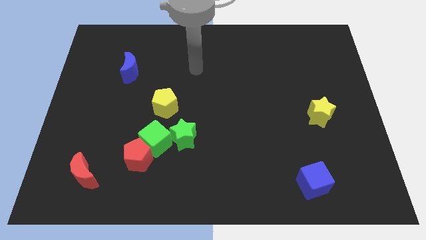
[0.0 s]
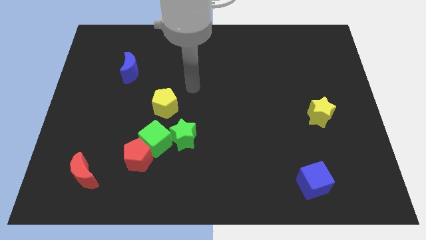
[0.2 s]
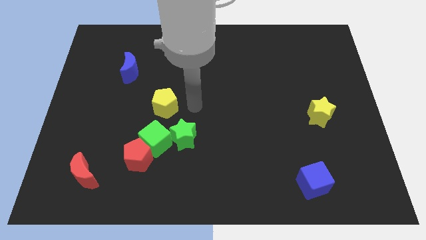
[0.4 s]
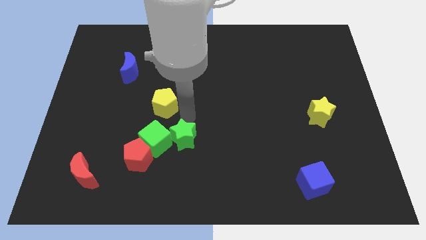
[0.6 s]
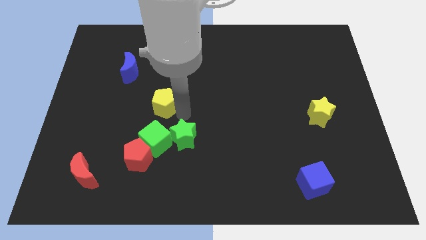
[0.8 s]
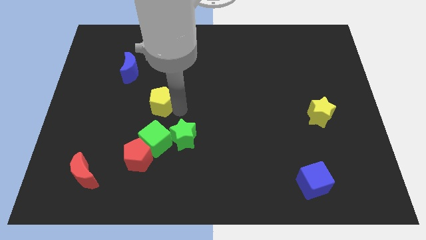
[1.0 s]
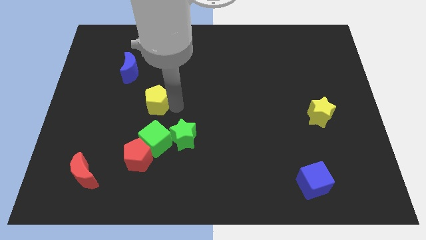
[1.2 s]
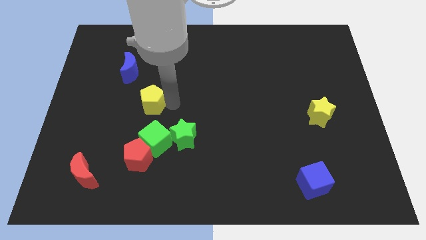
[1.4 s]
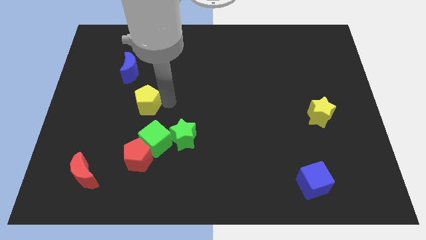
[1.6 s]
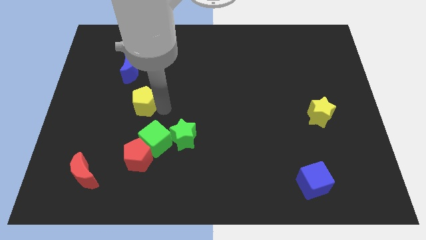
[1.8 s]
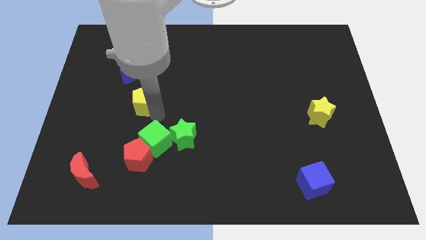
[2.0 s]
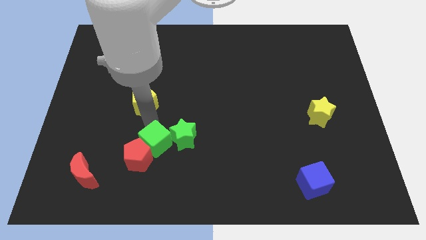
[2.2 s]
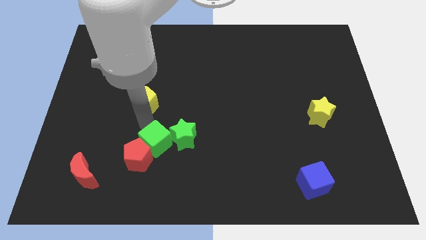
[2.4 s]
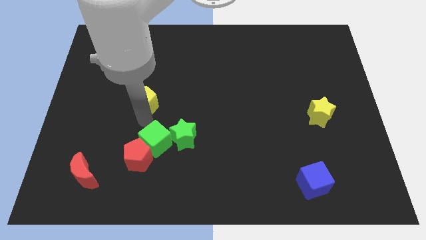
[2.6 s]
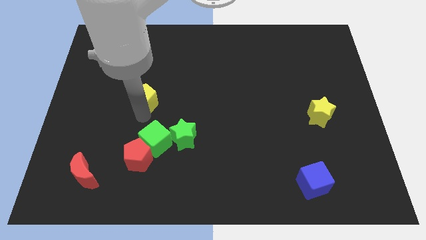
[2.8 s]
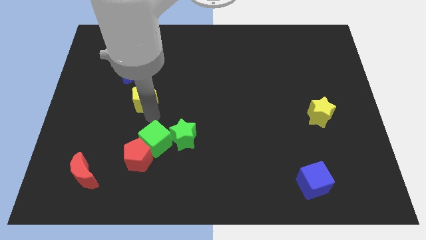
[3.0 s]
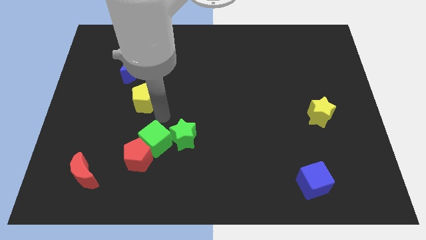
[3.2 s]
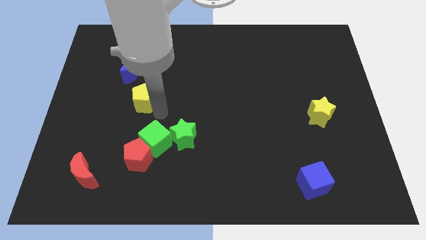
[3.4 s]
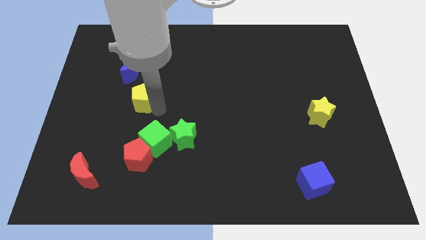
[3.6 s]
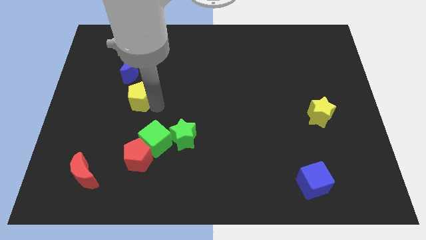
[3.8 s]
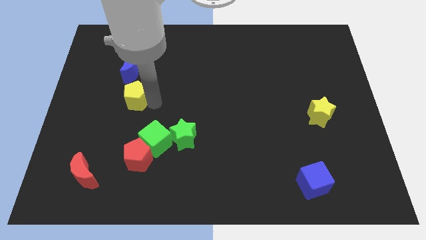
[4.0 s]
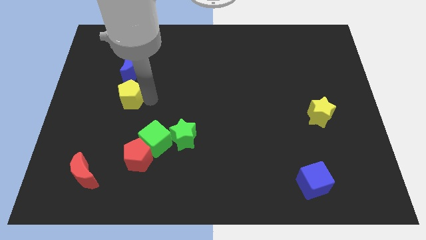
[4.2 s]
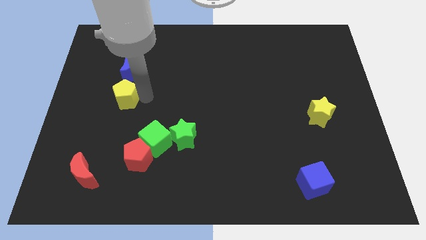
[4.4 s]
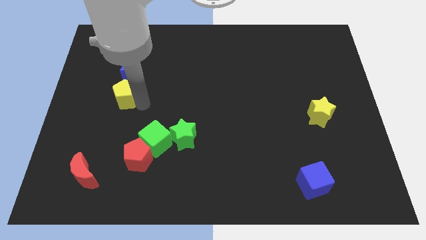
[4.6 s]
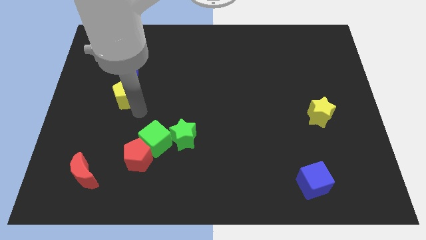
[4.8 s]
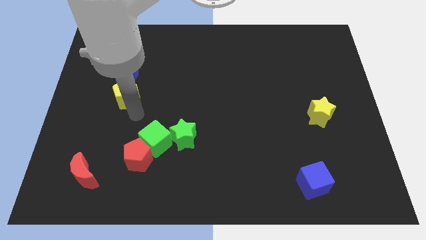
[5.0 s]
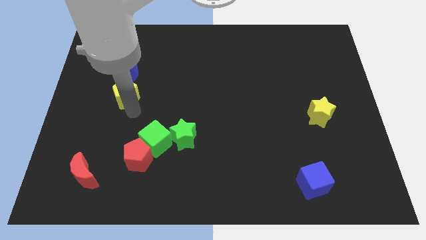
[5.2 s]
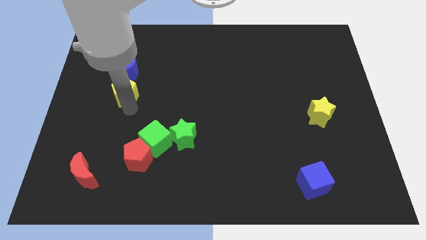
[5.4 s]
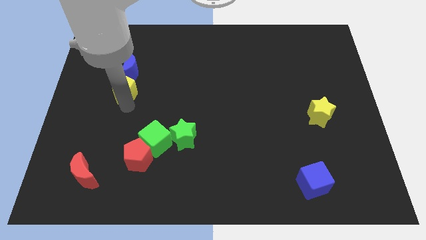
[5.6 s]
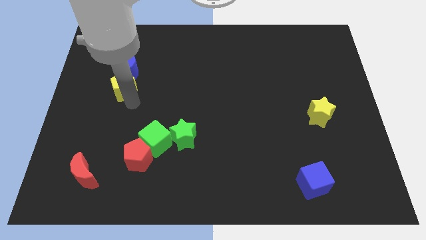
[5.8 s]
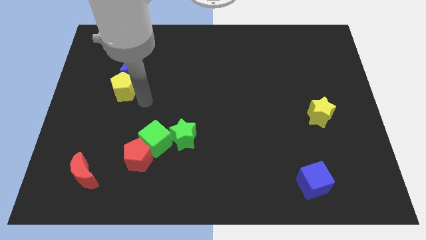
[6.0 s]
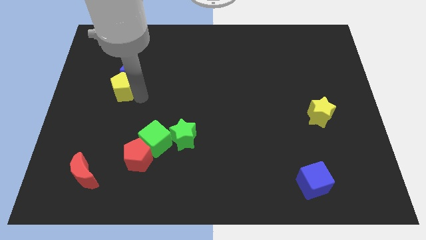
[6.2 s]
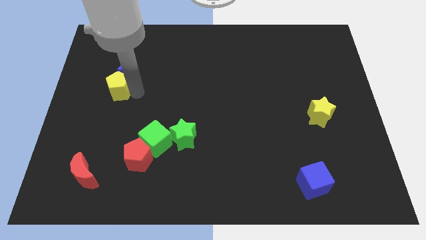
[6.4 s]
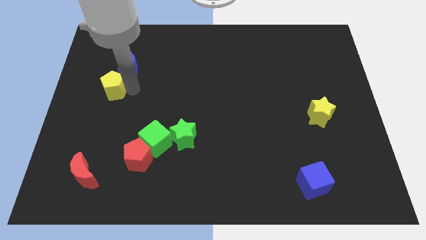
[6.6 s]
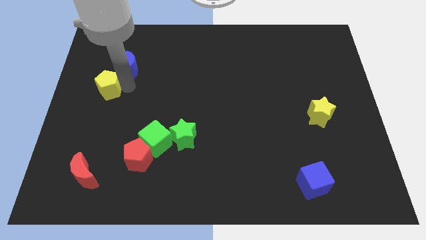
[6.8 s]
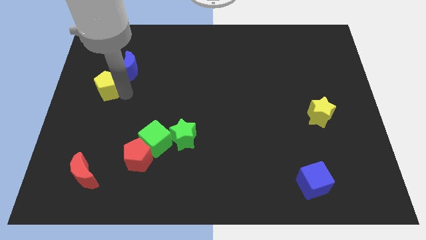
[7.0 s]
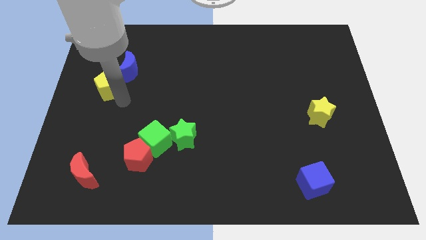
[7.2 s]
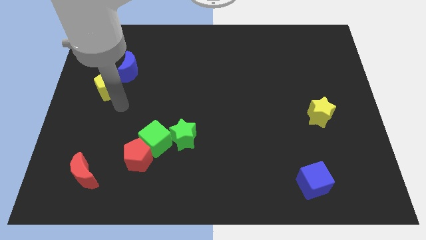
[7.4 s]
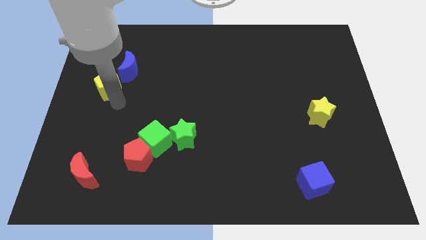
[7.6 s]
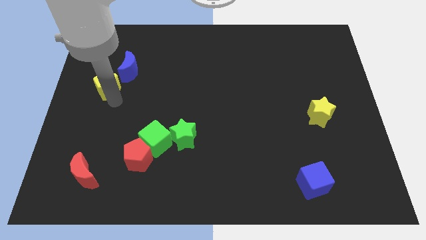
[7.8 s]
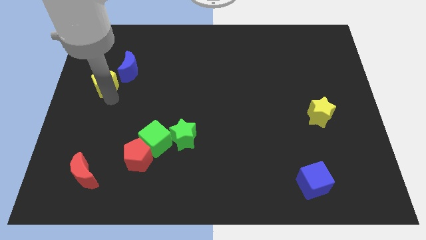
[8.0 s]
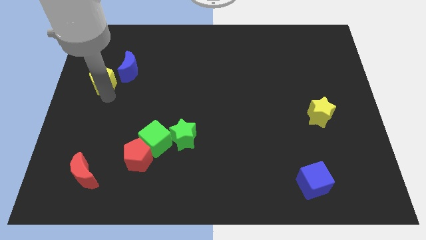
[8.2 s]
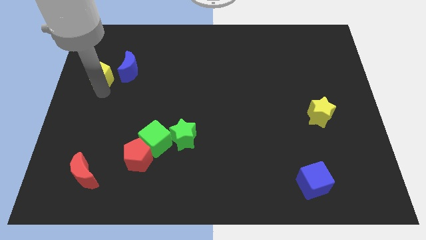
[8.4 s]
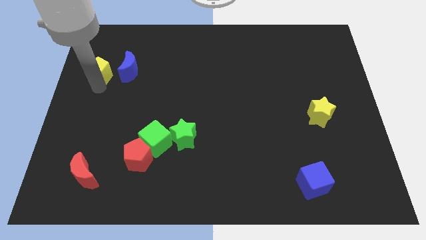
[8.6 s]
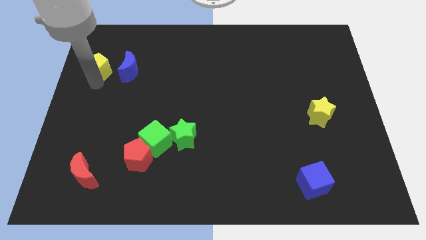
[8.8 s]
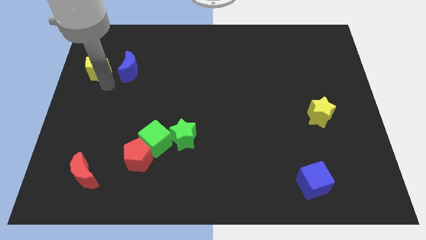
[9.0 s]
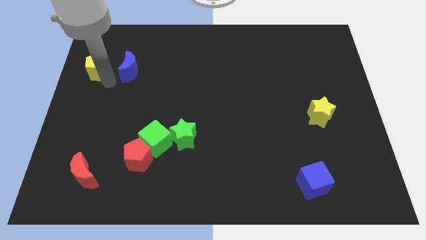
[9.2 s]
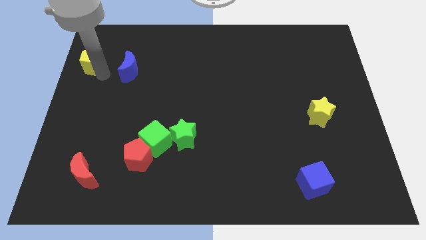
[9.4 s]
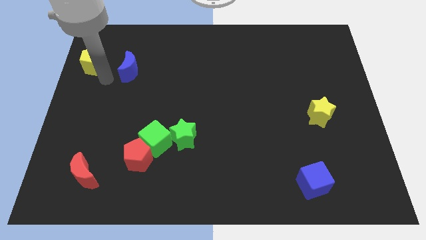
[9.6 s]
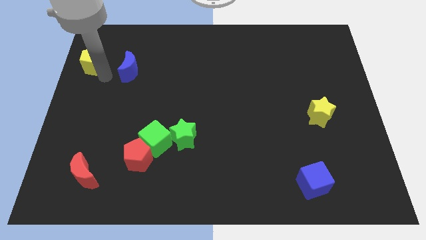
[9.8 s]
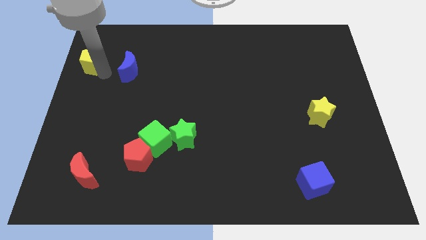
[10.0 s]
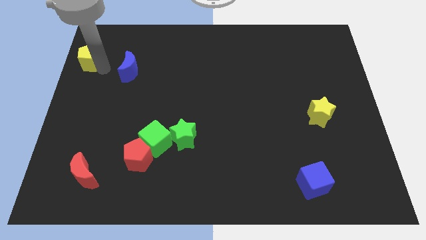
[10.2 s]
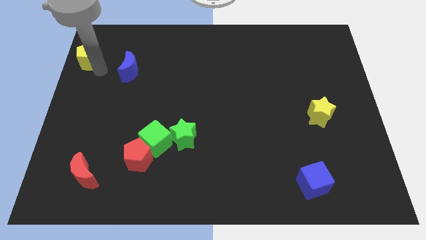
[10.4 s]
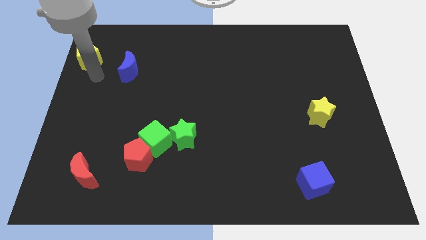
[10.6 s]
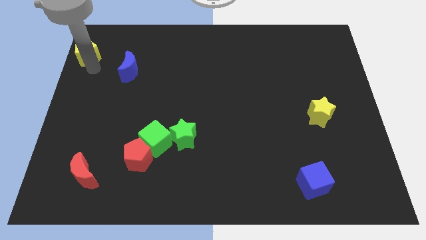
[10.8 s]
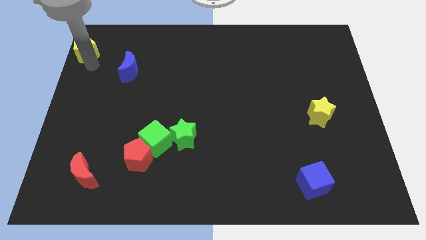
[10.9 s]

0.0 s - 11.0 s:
push the yellow pentagon to the top left
